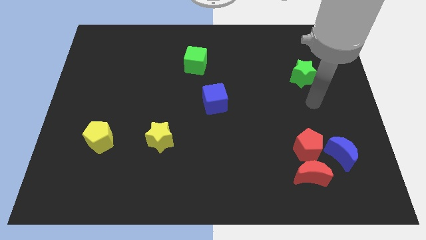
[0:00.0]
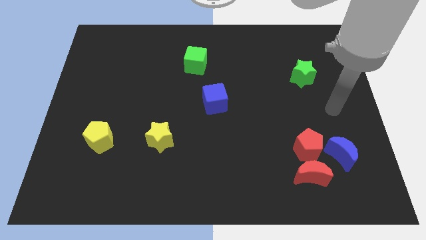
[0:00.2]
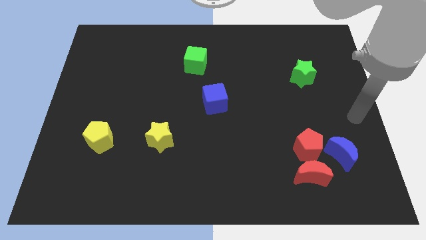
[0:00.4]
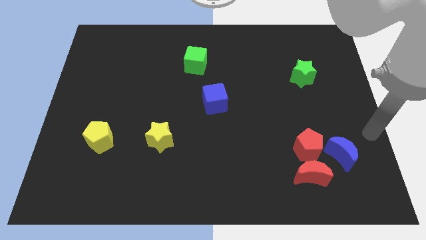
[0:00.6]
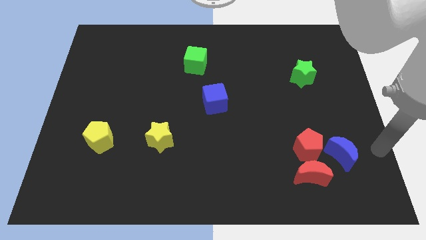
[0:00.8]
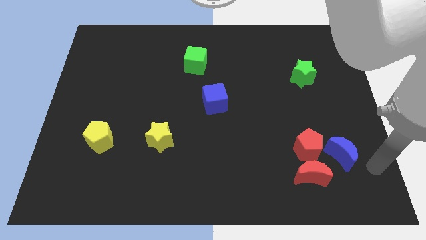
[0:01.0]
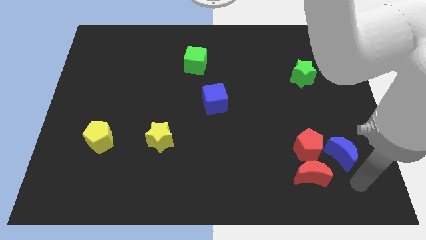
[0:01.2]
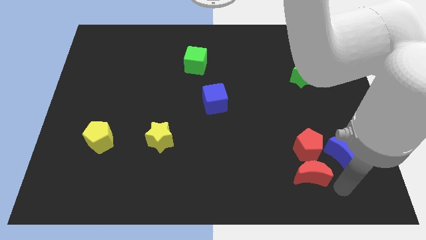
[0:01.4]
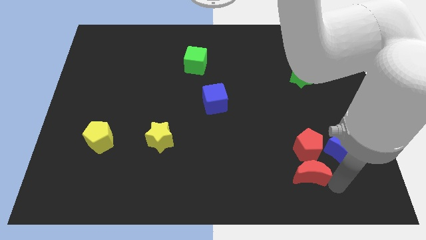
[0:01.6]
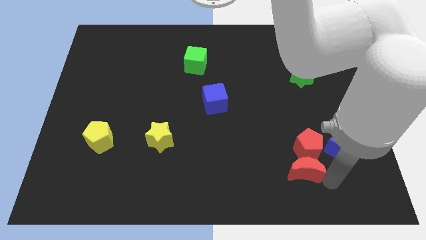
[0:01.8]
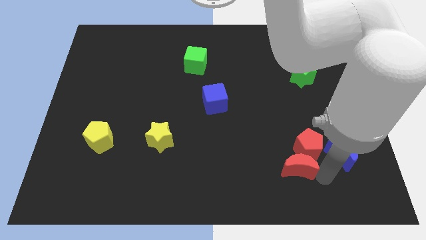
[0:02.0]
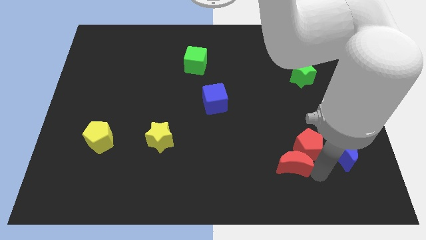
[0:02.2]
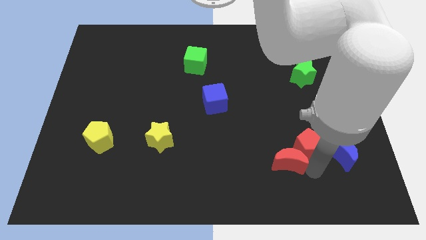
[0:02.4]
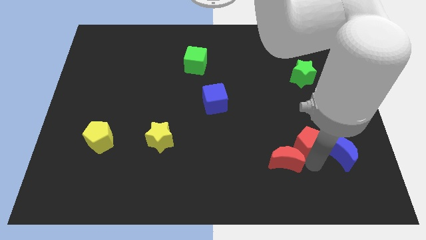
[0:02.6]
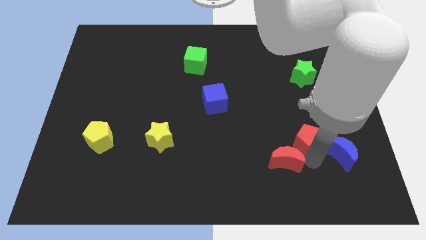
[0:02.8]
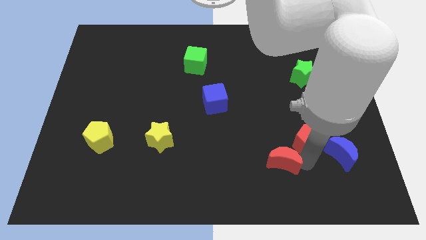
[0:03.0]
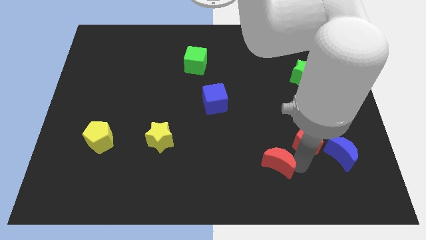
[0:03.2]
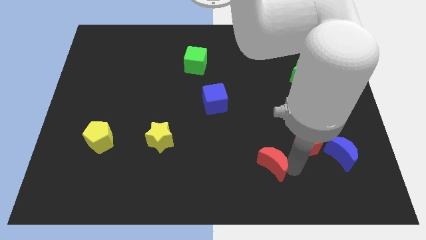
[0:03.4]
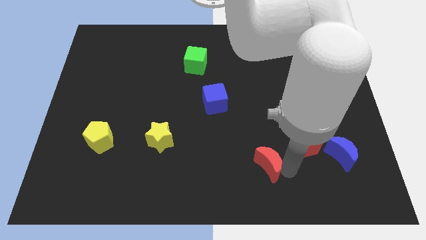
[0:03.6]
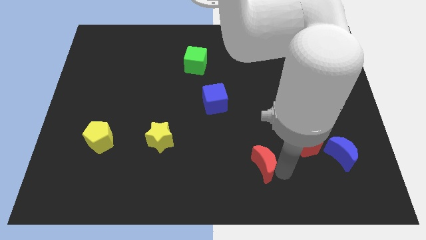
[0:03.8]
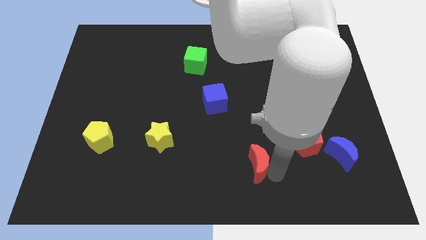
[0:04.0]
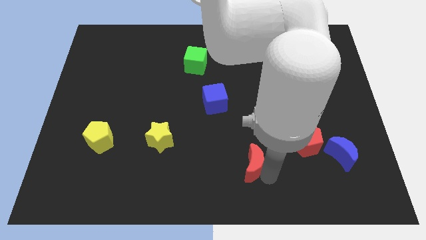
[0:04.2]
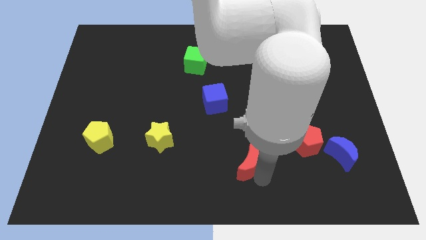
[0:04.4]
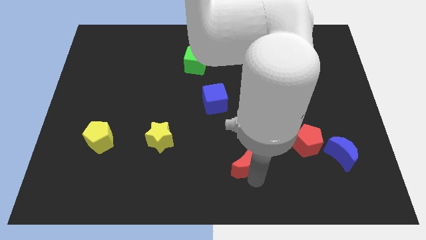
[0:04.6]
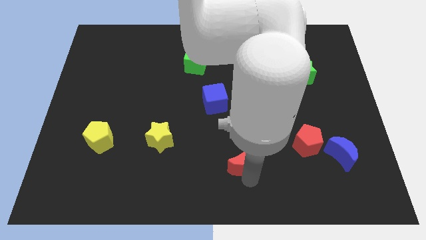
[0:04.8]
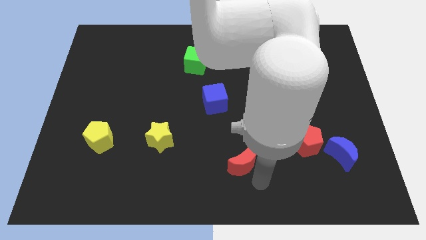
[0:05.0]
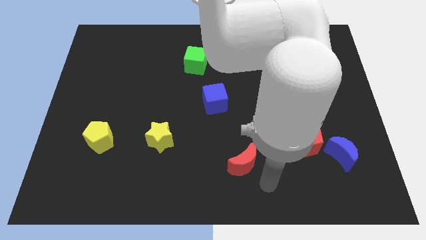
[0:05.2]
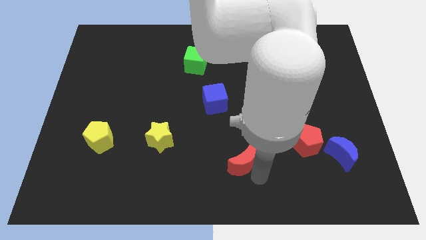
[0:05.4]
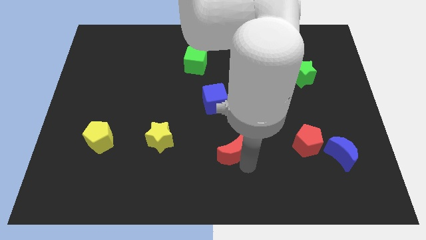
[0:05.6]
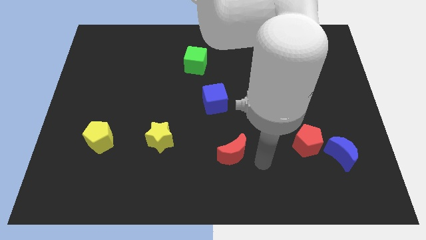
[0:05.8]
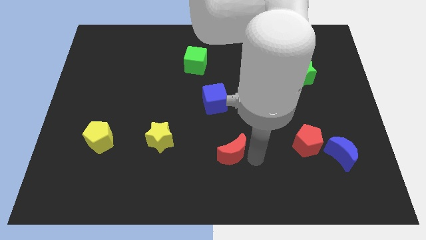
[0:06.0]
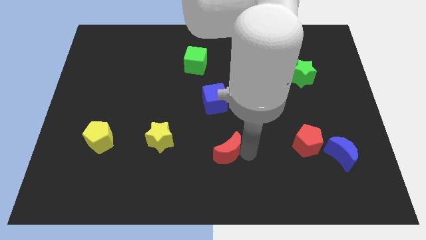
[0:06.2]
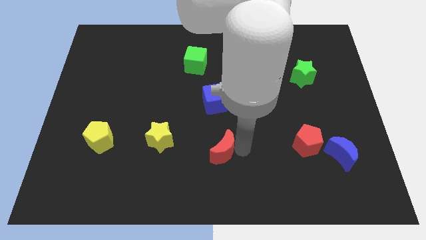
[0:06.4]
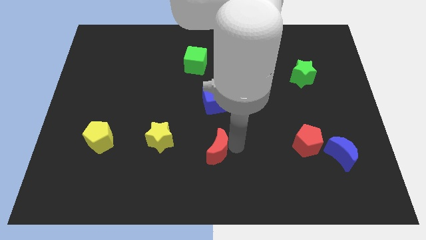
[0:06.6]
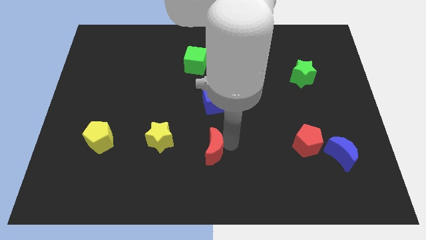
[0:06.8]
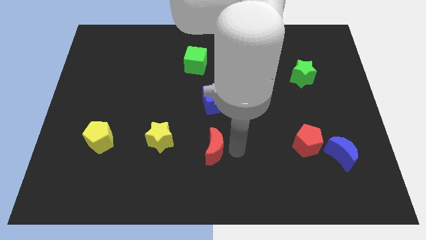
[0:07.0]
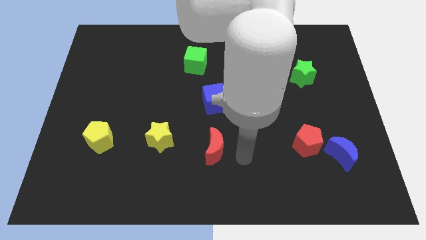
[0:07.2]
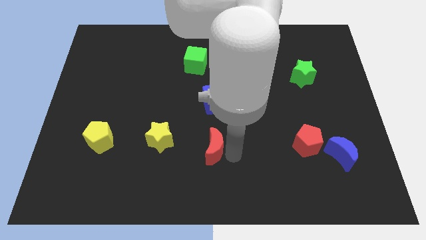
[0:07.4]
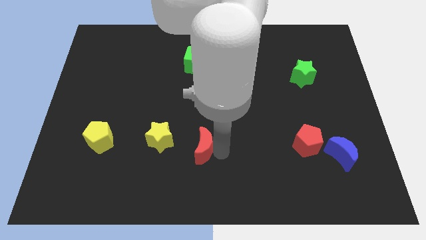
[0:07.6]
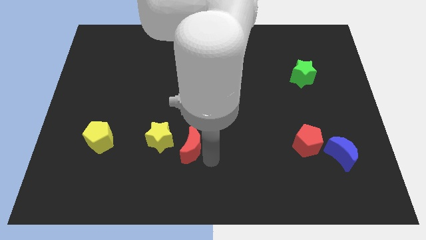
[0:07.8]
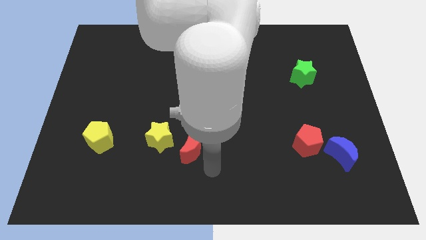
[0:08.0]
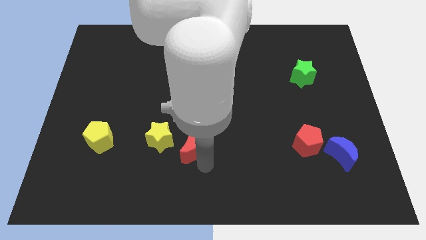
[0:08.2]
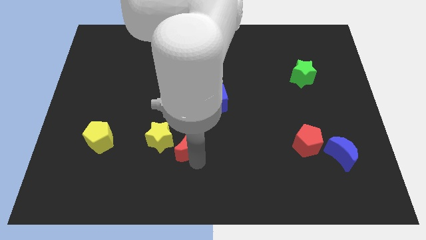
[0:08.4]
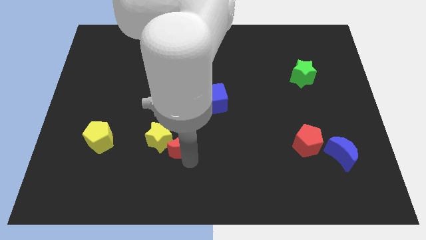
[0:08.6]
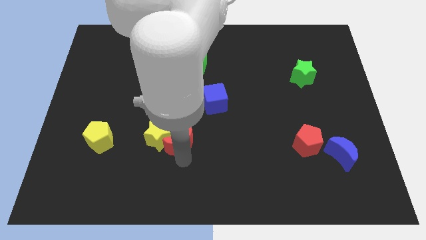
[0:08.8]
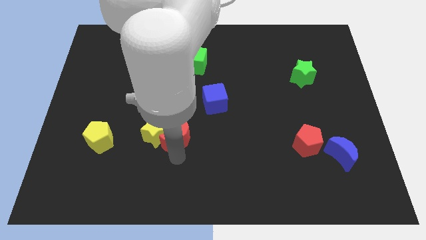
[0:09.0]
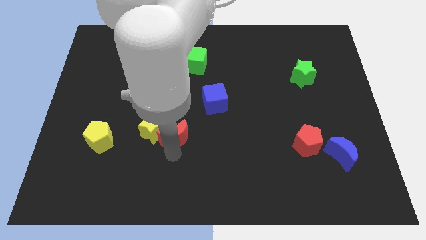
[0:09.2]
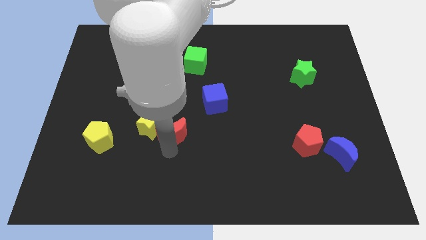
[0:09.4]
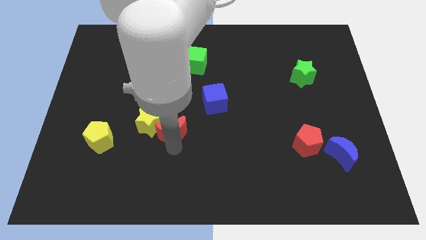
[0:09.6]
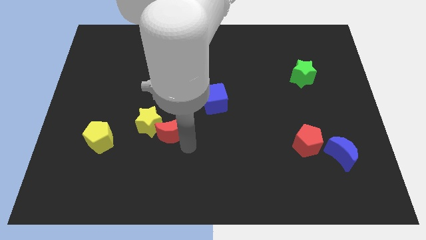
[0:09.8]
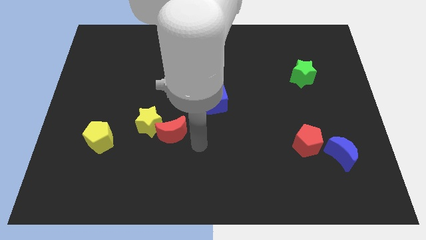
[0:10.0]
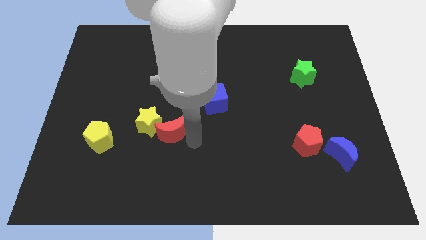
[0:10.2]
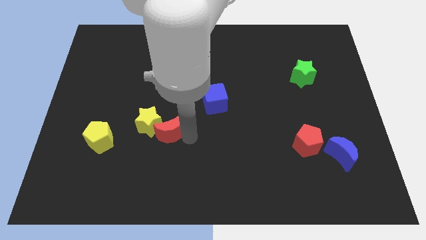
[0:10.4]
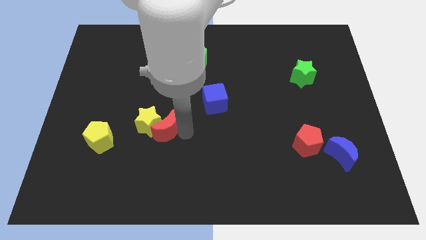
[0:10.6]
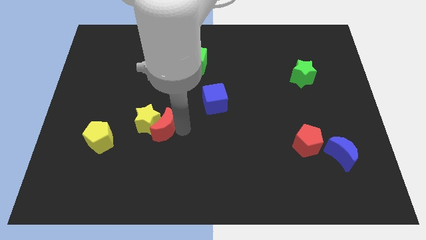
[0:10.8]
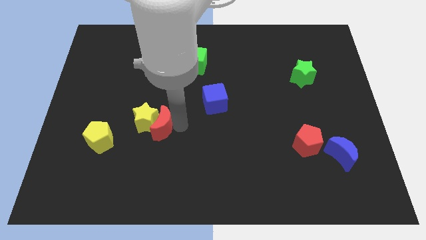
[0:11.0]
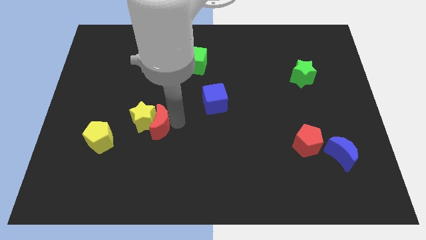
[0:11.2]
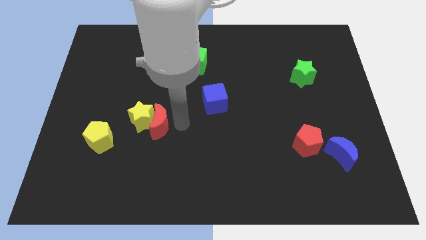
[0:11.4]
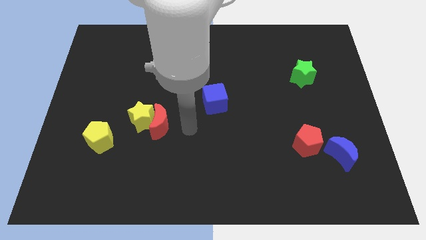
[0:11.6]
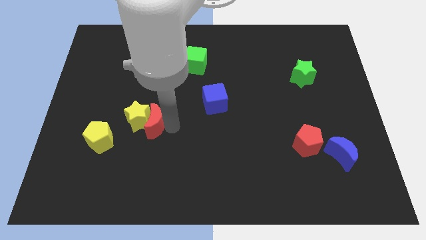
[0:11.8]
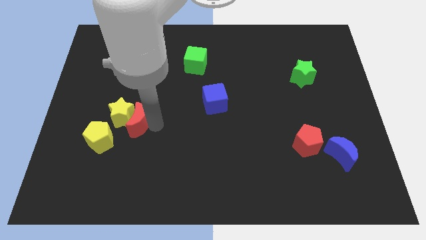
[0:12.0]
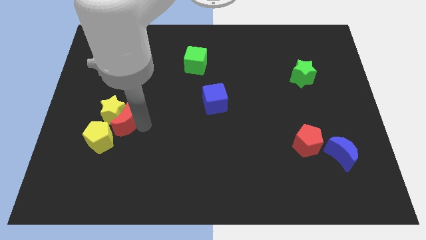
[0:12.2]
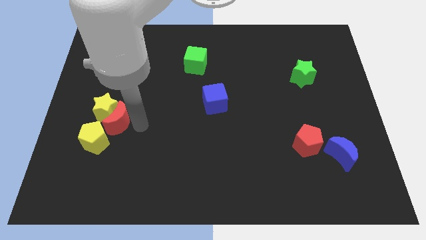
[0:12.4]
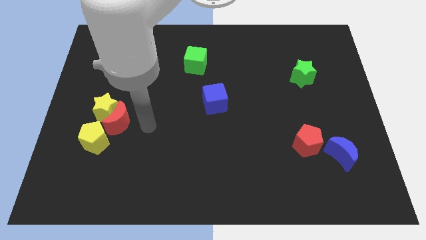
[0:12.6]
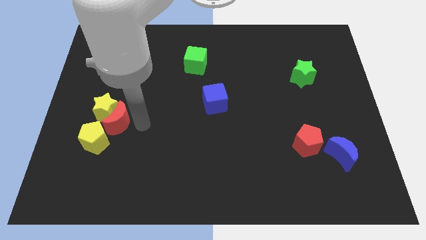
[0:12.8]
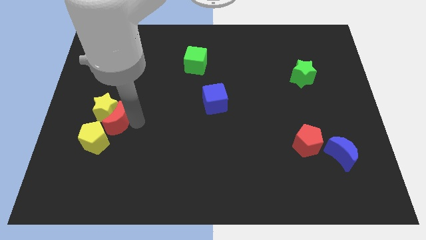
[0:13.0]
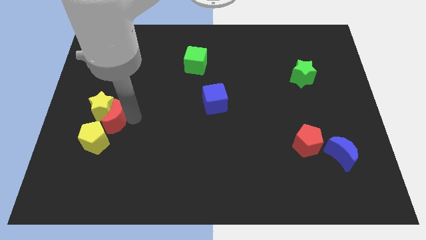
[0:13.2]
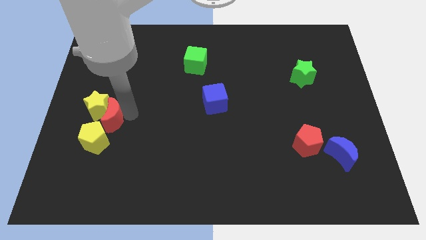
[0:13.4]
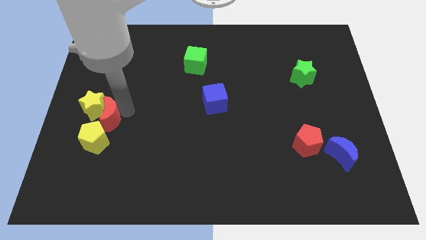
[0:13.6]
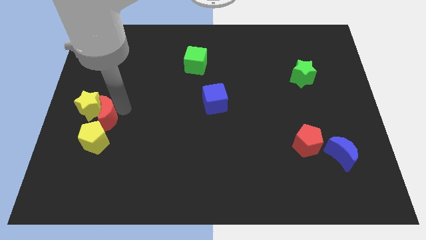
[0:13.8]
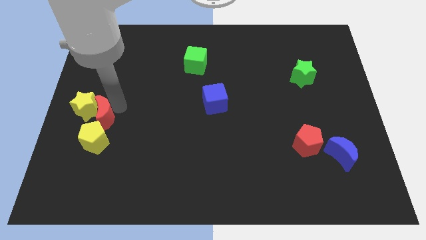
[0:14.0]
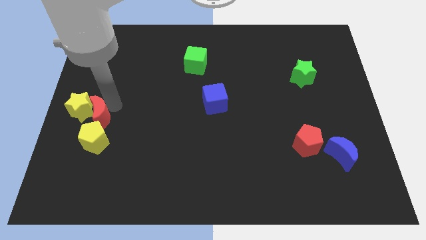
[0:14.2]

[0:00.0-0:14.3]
put the red moon to the center left
